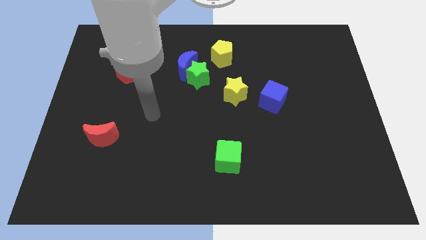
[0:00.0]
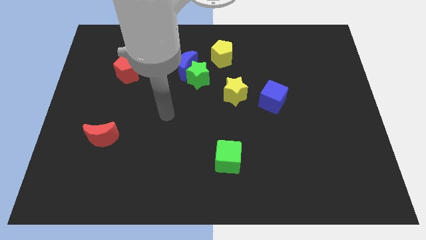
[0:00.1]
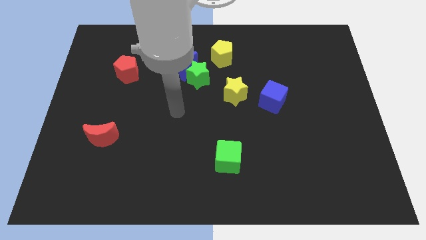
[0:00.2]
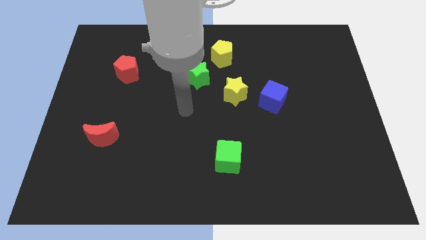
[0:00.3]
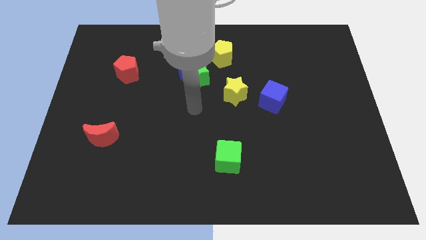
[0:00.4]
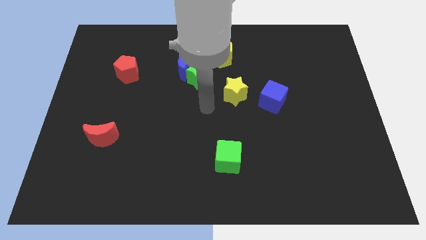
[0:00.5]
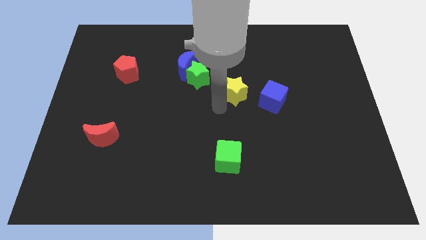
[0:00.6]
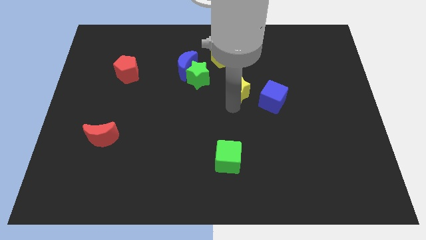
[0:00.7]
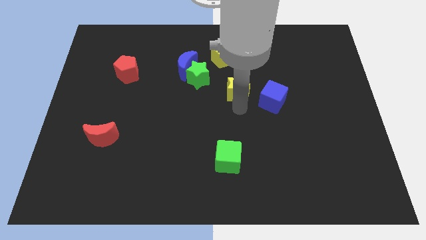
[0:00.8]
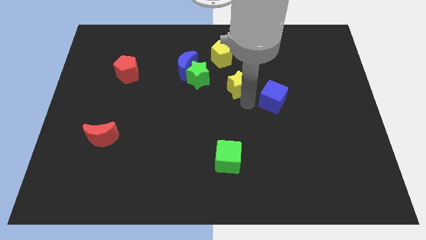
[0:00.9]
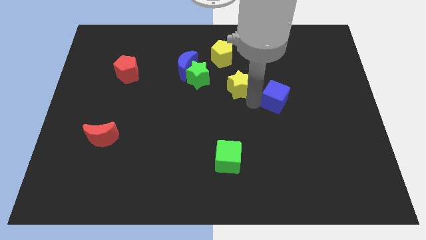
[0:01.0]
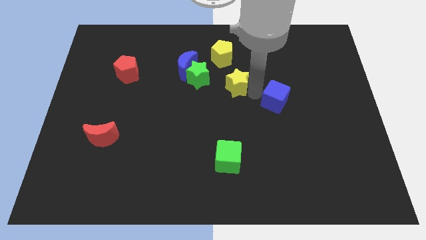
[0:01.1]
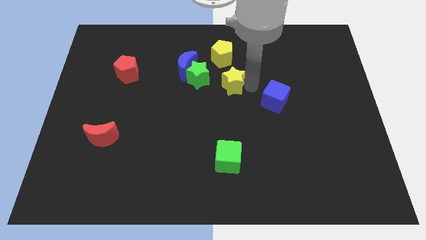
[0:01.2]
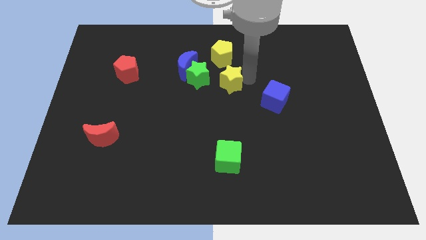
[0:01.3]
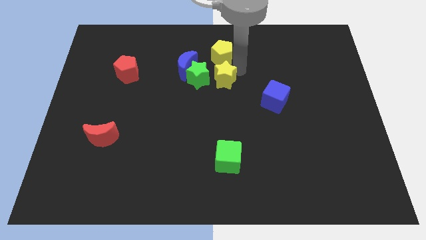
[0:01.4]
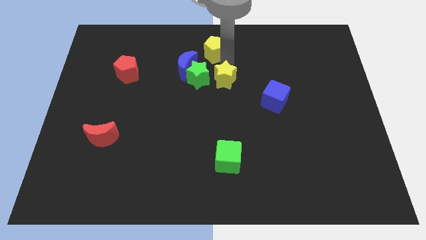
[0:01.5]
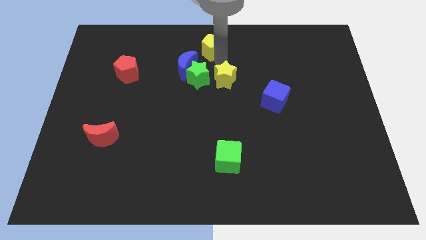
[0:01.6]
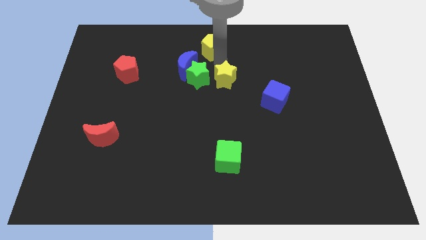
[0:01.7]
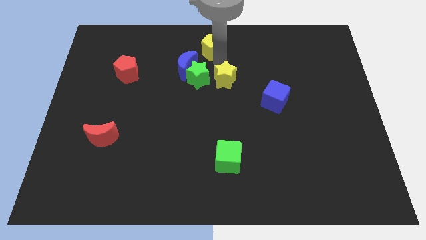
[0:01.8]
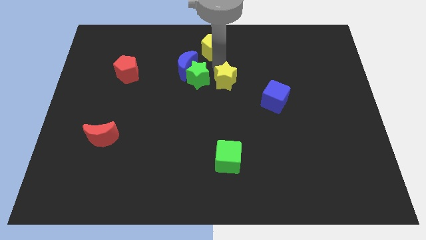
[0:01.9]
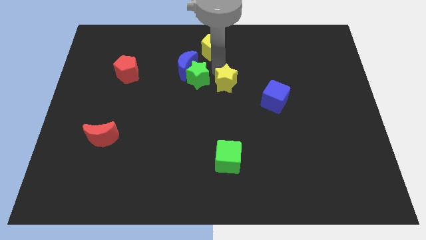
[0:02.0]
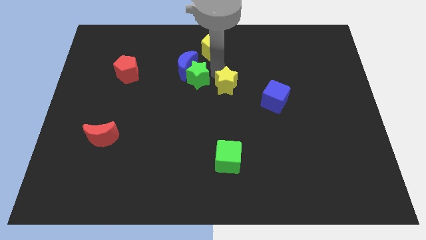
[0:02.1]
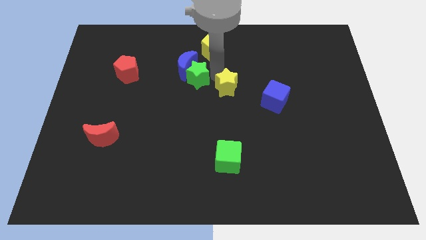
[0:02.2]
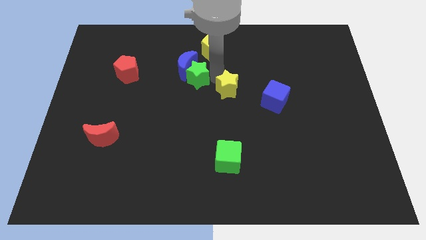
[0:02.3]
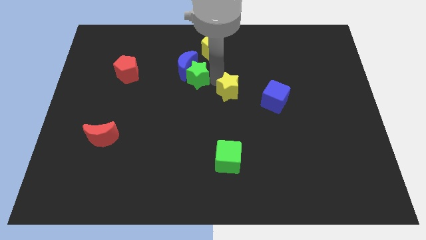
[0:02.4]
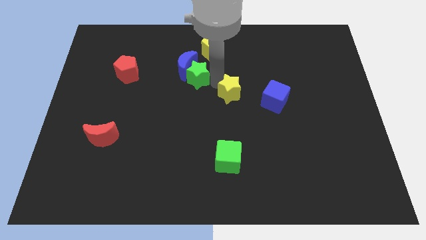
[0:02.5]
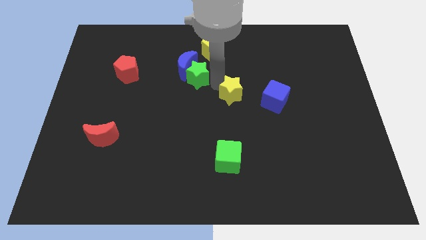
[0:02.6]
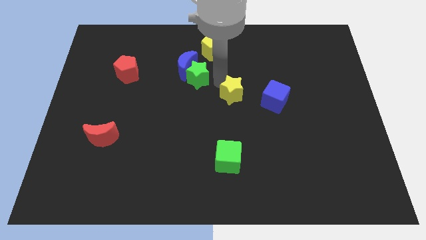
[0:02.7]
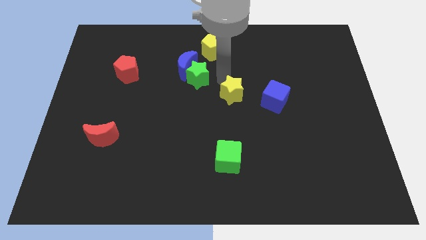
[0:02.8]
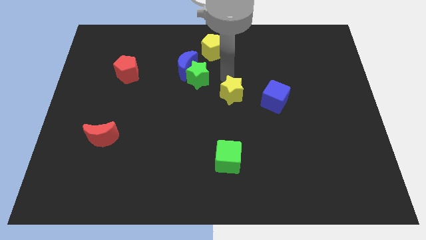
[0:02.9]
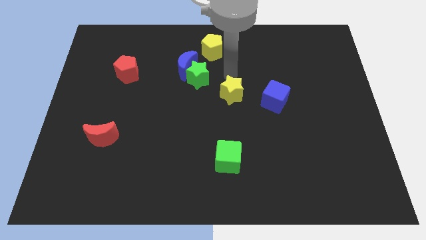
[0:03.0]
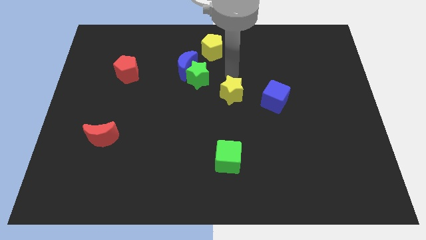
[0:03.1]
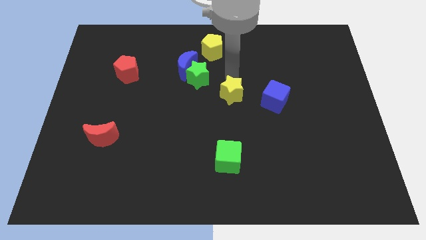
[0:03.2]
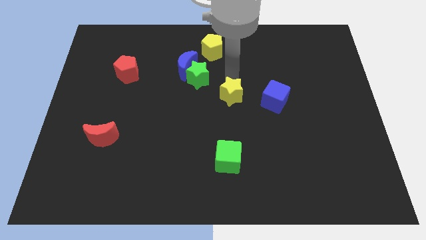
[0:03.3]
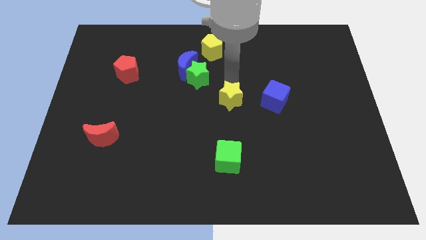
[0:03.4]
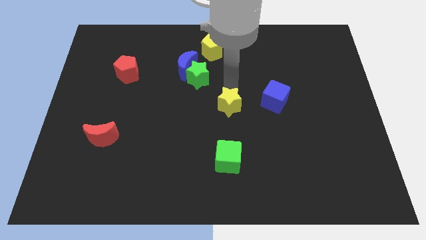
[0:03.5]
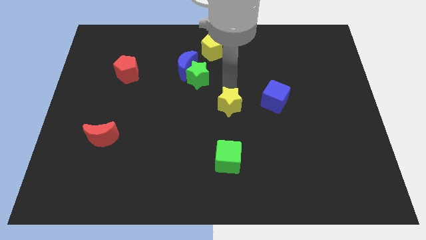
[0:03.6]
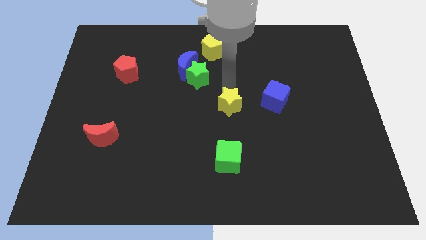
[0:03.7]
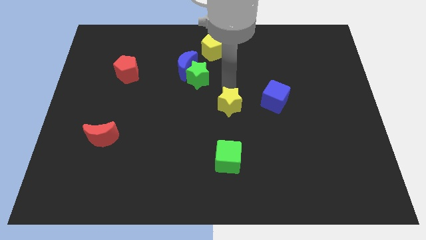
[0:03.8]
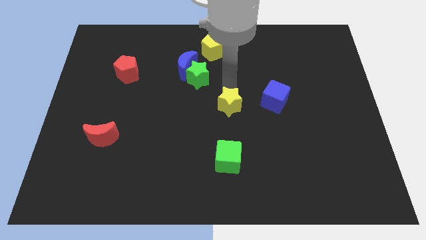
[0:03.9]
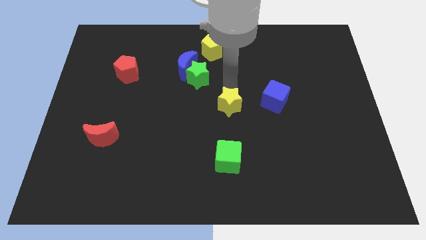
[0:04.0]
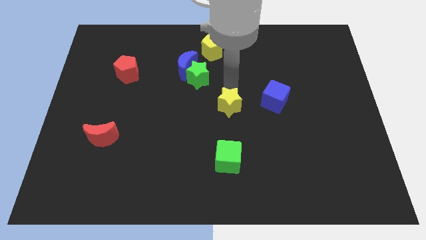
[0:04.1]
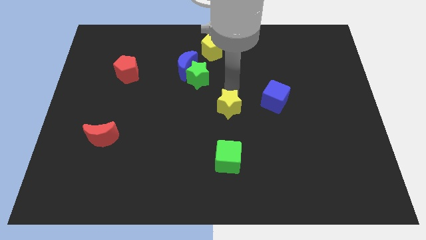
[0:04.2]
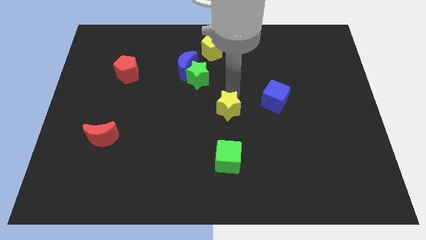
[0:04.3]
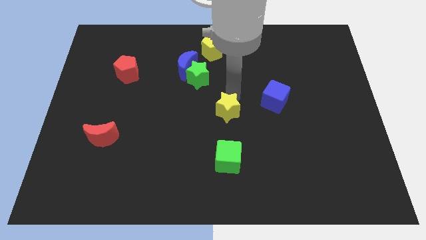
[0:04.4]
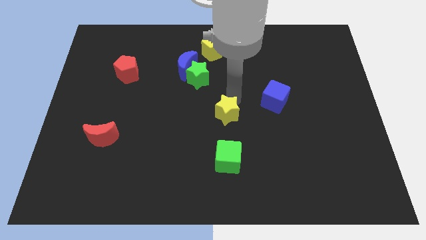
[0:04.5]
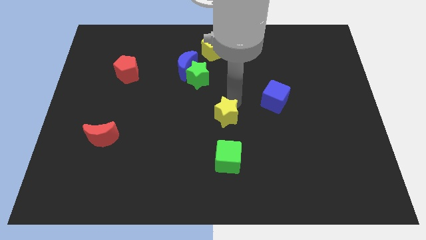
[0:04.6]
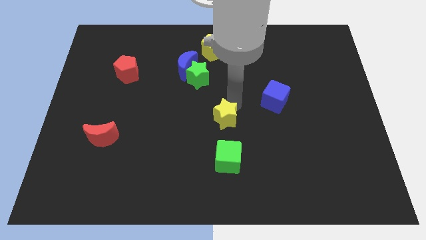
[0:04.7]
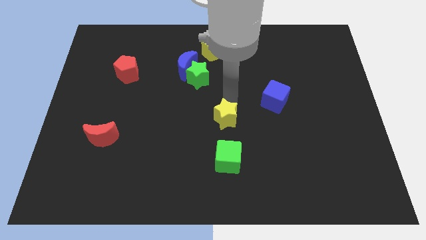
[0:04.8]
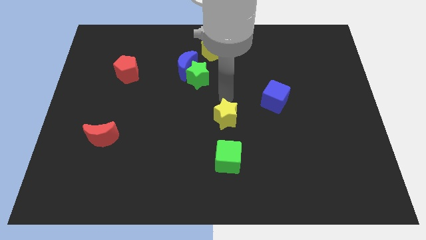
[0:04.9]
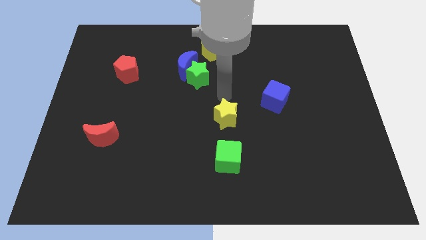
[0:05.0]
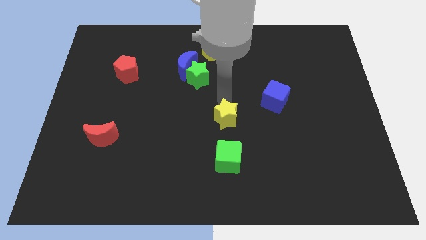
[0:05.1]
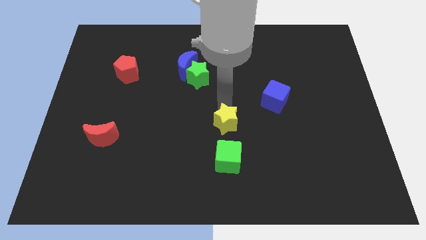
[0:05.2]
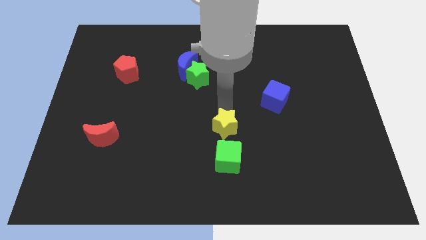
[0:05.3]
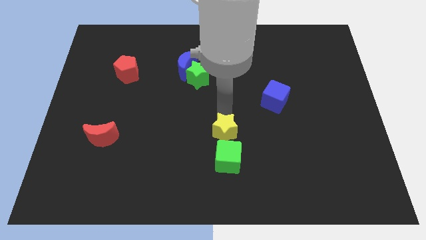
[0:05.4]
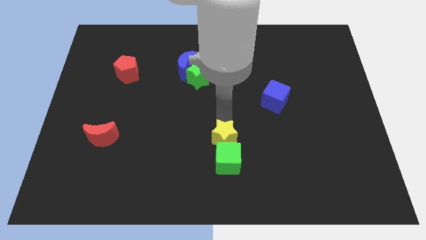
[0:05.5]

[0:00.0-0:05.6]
put the yellow star to the green cube

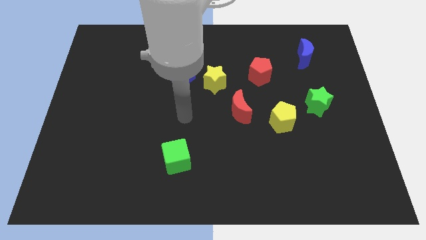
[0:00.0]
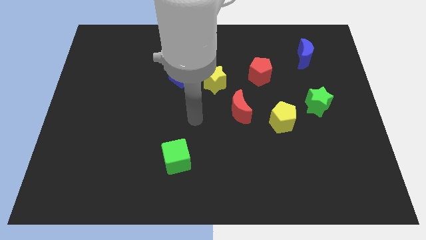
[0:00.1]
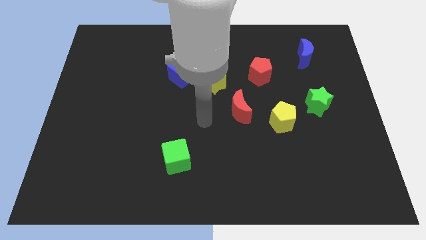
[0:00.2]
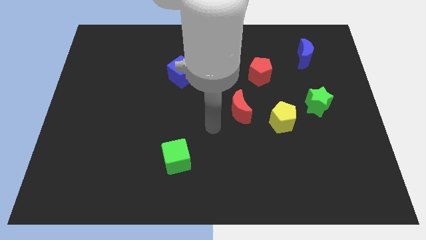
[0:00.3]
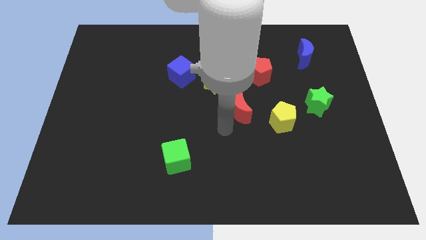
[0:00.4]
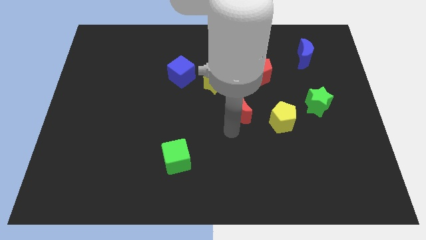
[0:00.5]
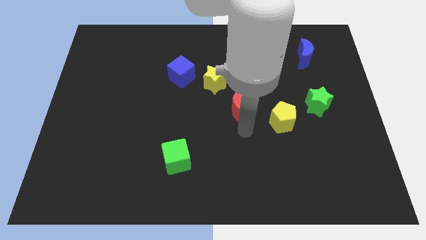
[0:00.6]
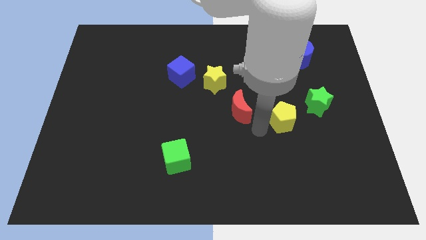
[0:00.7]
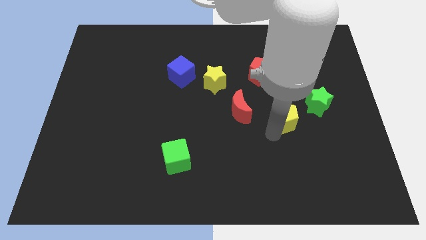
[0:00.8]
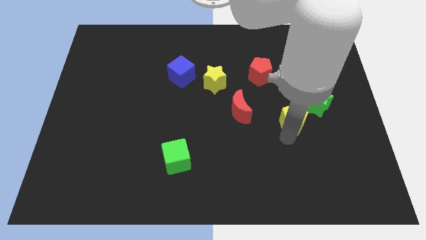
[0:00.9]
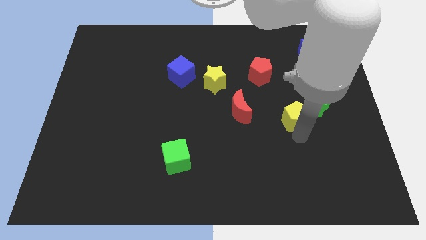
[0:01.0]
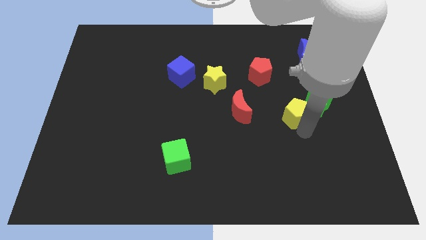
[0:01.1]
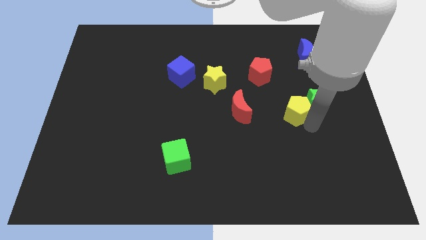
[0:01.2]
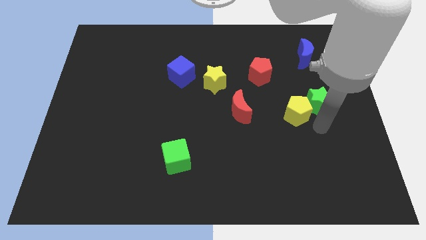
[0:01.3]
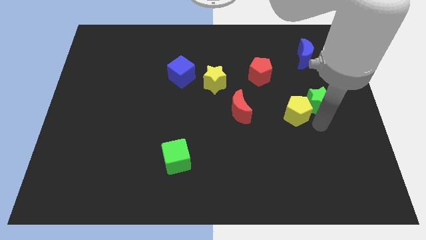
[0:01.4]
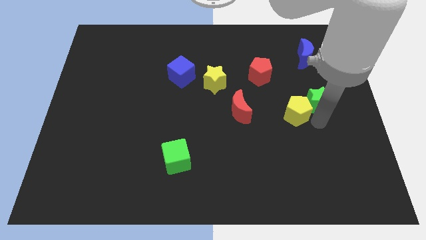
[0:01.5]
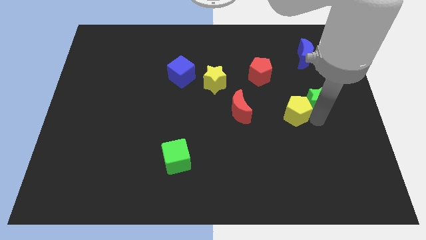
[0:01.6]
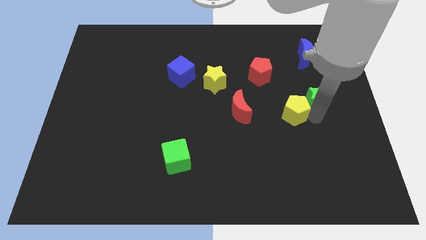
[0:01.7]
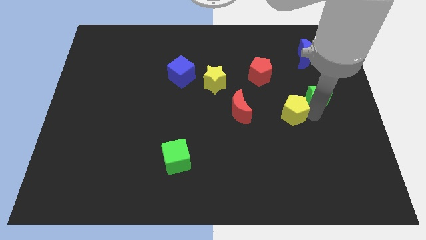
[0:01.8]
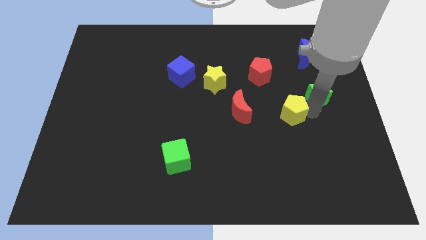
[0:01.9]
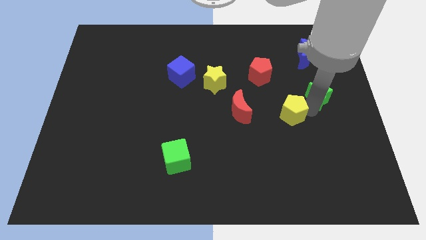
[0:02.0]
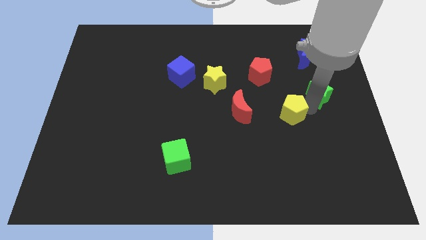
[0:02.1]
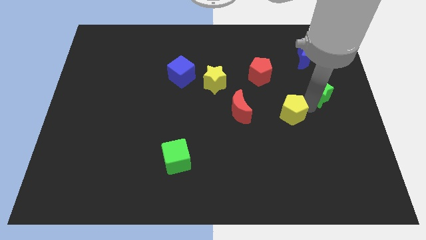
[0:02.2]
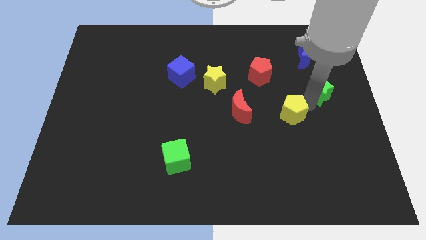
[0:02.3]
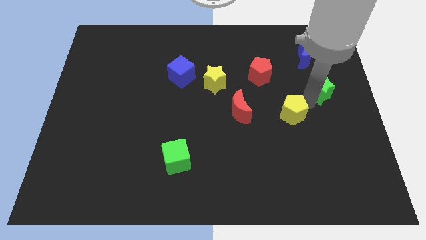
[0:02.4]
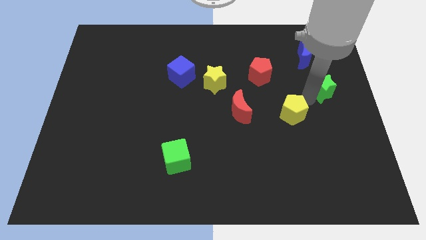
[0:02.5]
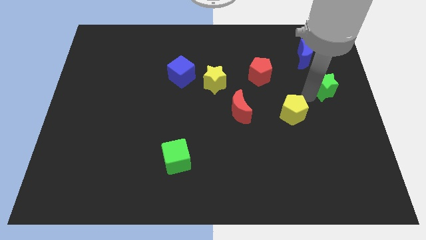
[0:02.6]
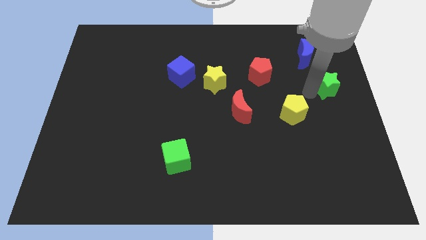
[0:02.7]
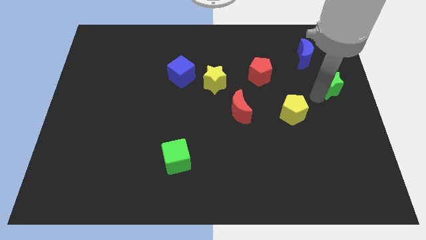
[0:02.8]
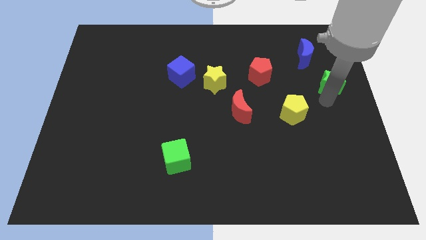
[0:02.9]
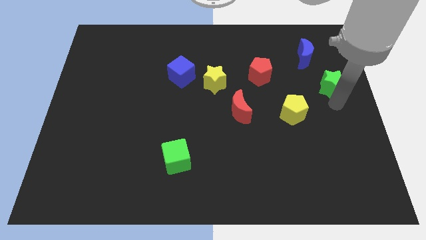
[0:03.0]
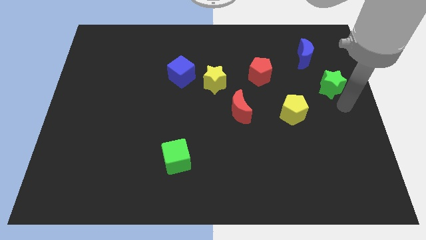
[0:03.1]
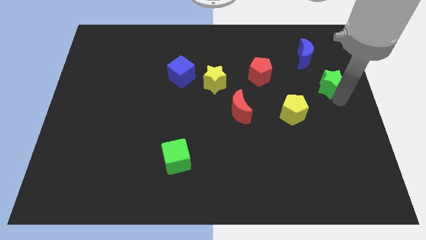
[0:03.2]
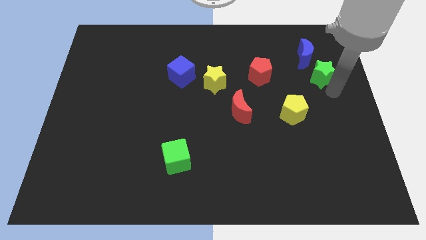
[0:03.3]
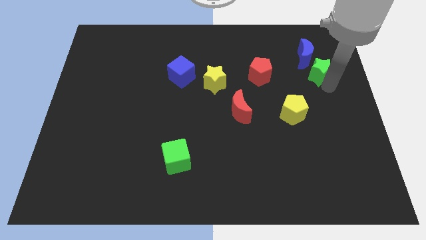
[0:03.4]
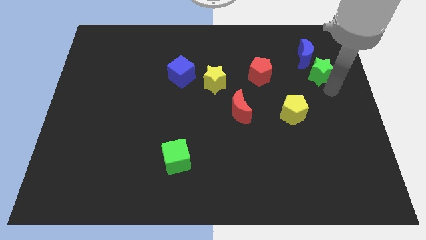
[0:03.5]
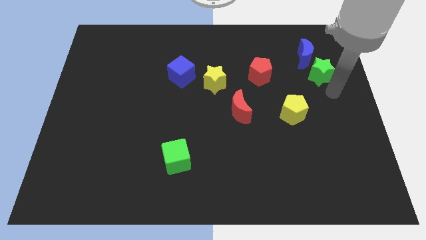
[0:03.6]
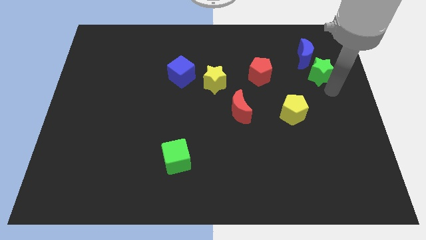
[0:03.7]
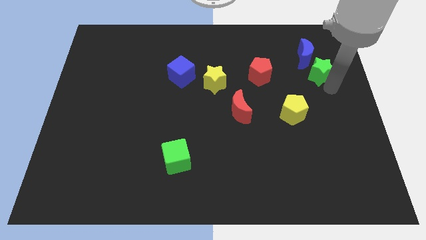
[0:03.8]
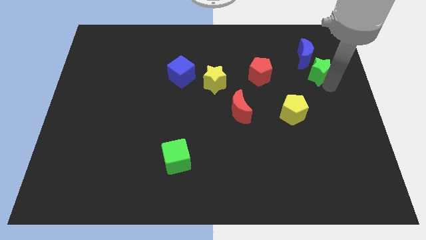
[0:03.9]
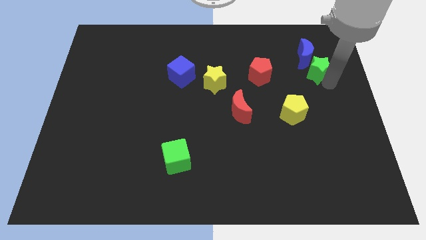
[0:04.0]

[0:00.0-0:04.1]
move the green star to the blue moon
